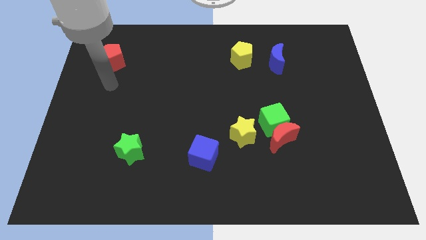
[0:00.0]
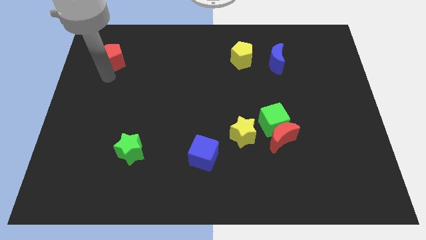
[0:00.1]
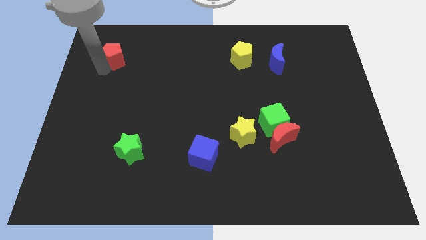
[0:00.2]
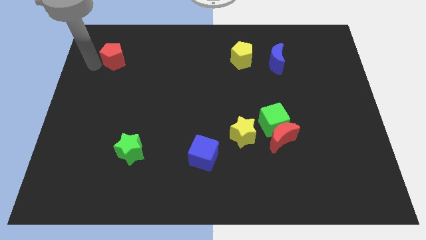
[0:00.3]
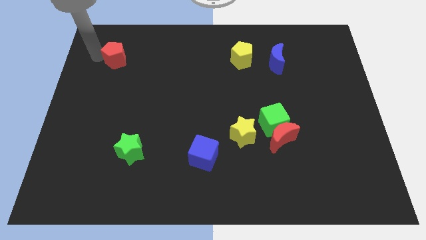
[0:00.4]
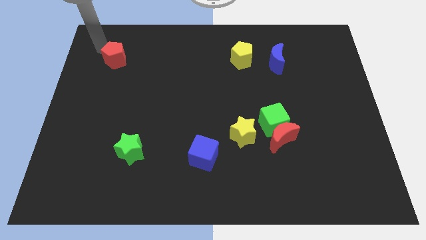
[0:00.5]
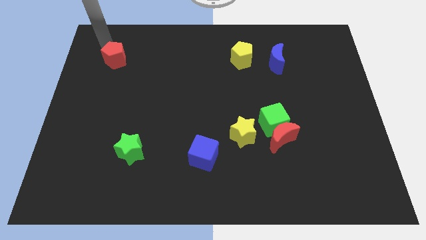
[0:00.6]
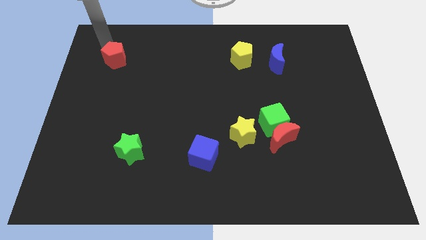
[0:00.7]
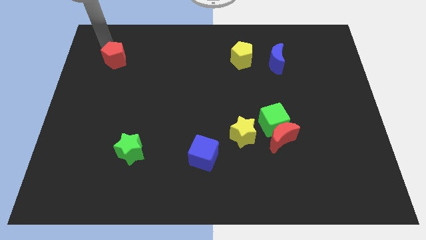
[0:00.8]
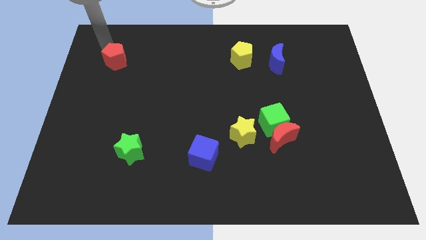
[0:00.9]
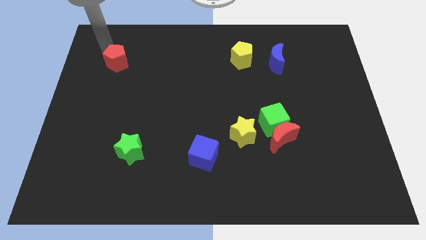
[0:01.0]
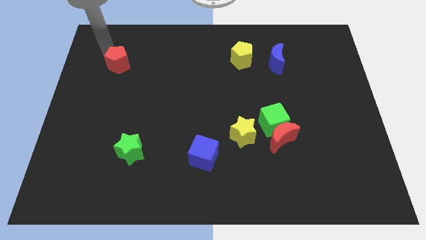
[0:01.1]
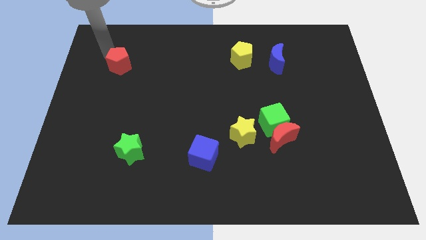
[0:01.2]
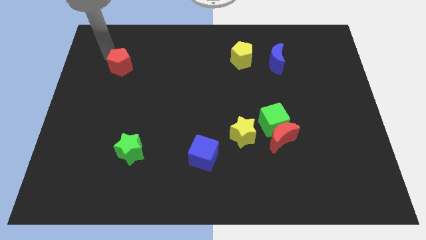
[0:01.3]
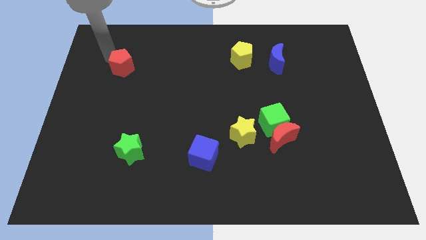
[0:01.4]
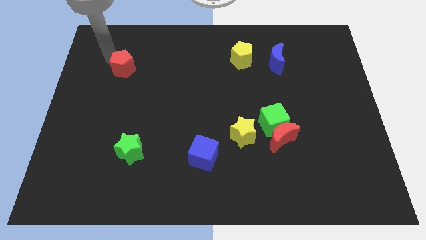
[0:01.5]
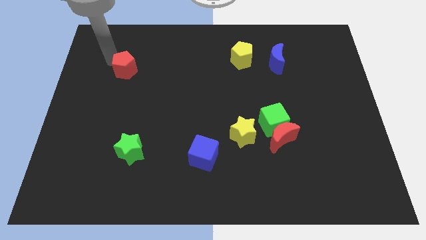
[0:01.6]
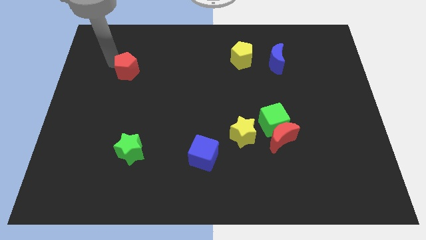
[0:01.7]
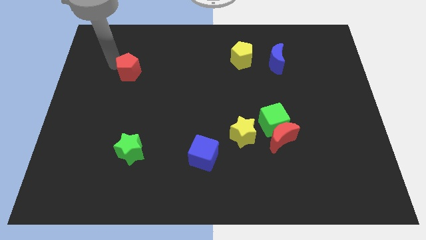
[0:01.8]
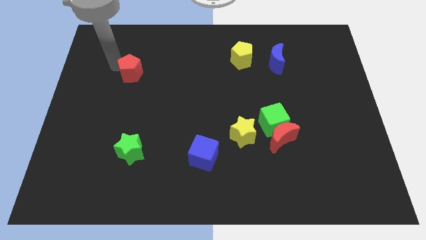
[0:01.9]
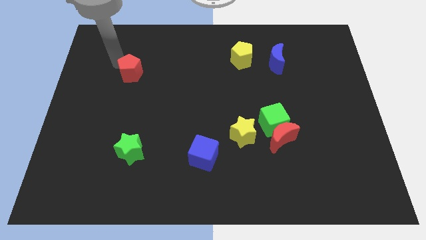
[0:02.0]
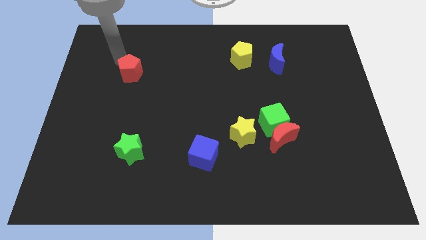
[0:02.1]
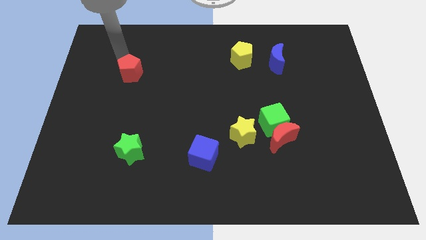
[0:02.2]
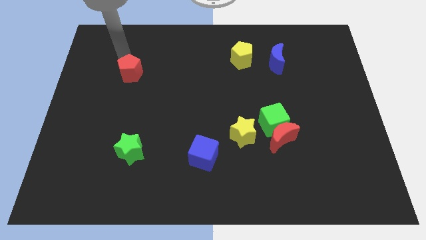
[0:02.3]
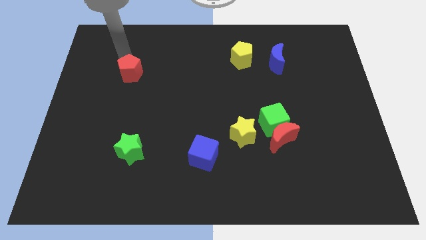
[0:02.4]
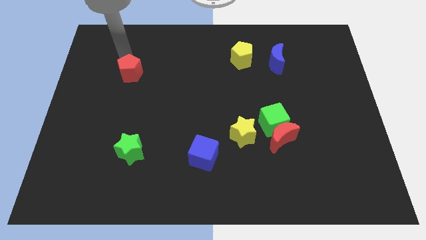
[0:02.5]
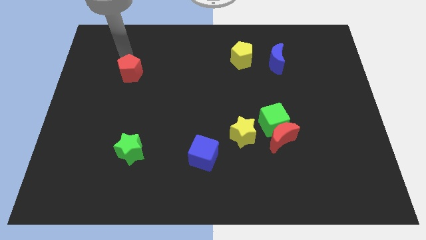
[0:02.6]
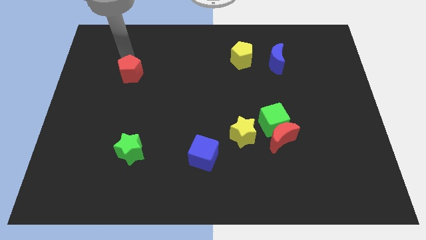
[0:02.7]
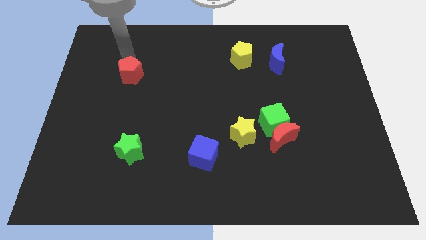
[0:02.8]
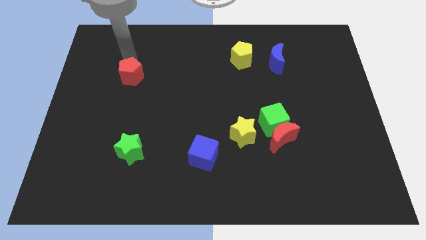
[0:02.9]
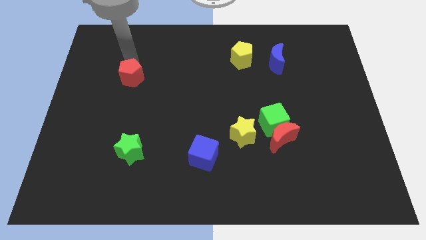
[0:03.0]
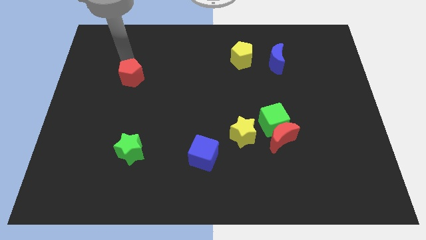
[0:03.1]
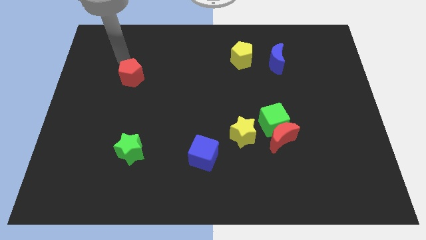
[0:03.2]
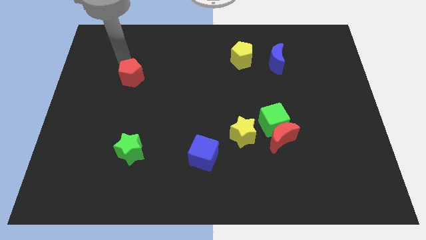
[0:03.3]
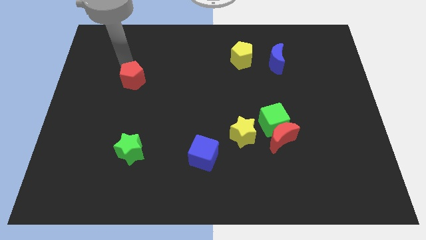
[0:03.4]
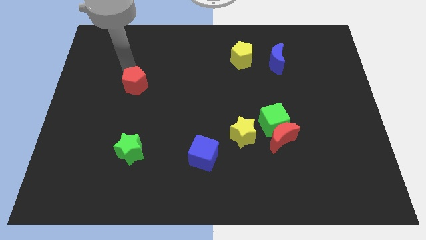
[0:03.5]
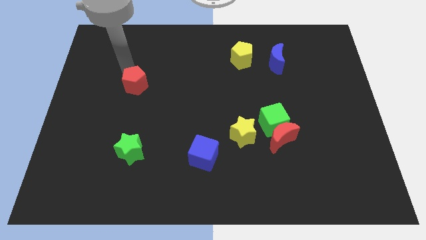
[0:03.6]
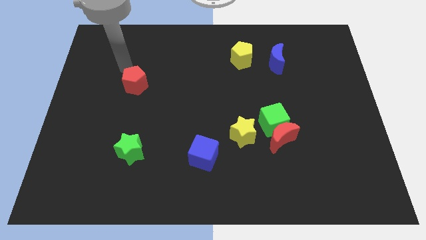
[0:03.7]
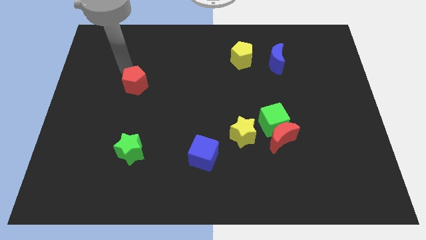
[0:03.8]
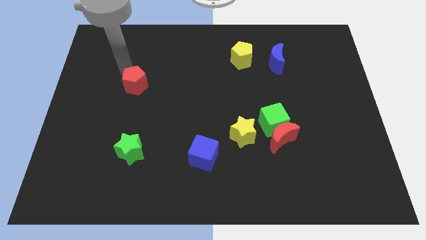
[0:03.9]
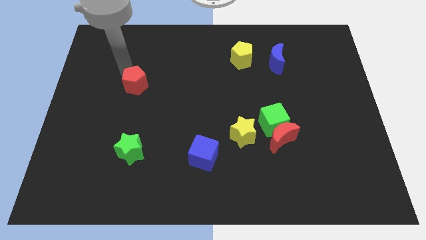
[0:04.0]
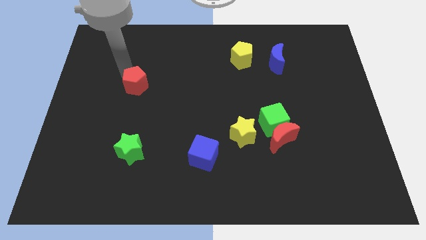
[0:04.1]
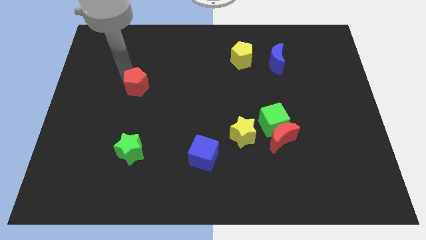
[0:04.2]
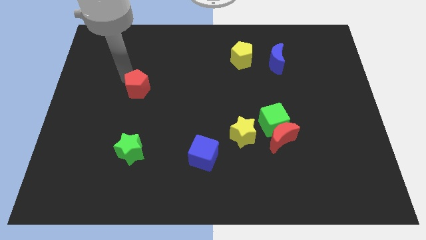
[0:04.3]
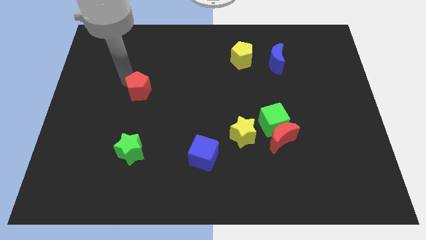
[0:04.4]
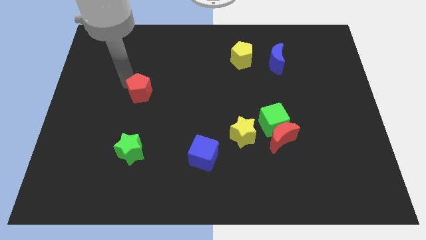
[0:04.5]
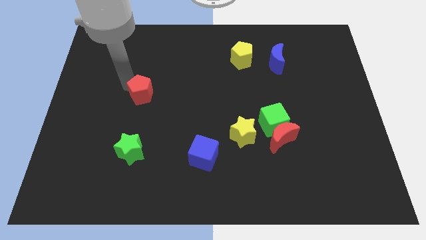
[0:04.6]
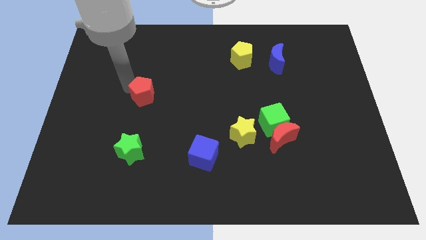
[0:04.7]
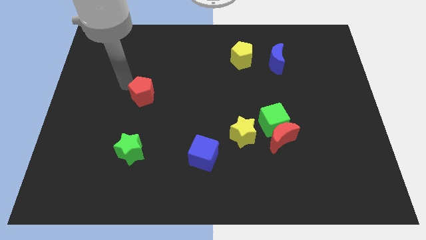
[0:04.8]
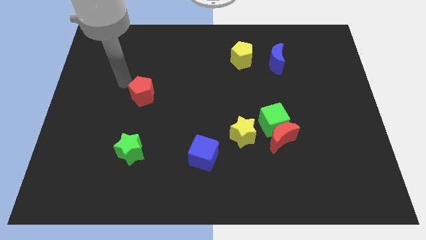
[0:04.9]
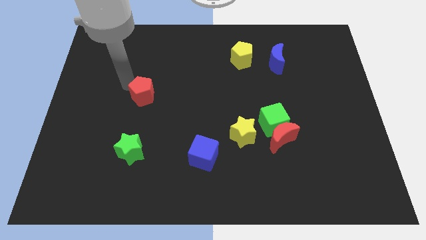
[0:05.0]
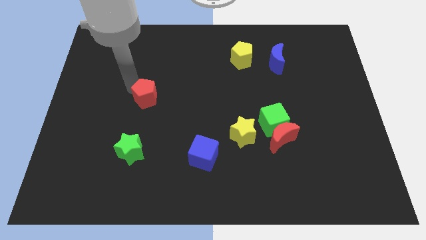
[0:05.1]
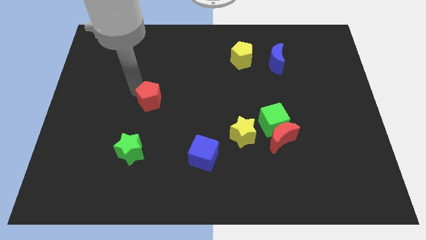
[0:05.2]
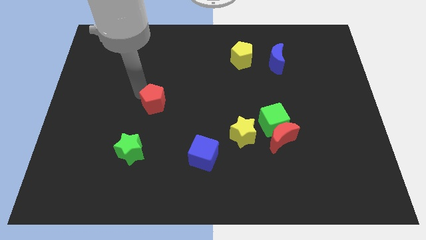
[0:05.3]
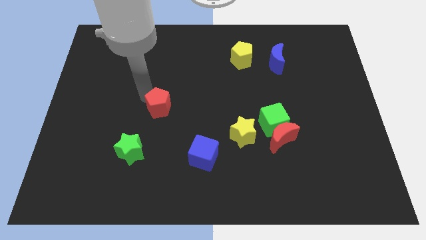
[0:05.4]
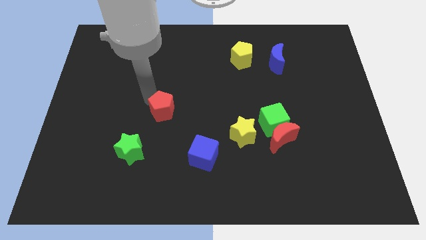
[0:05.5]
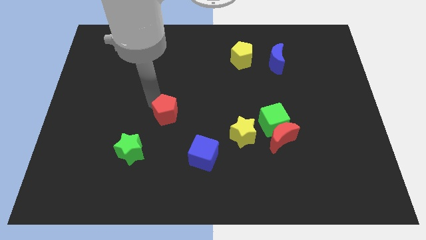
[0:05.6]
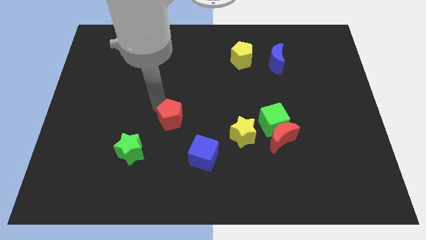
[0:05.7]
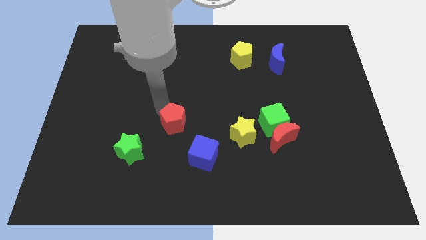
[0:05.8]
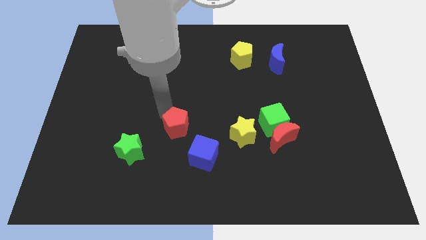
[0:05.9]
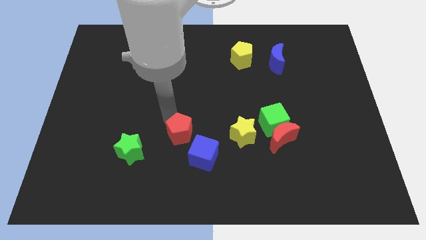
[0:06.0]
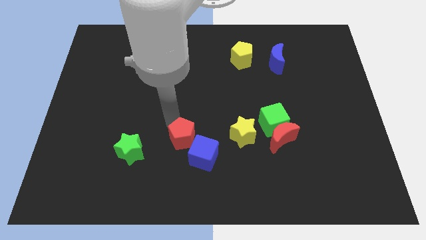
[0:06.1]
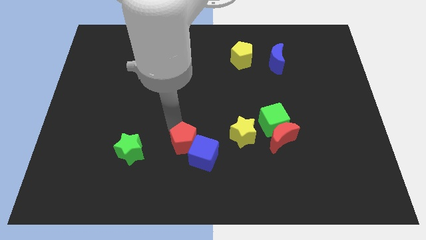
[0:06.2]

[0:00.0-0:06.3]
put the red pentagon close to the blue cube
